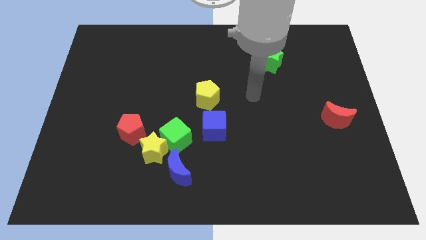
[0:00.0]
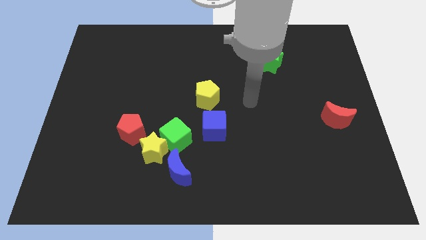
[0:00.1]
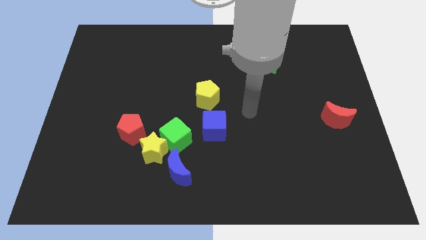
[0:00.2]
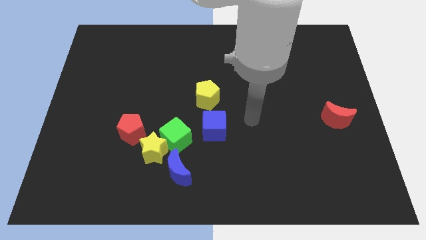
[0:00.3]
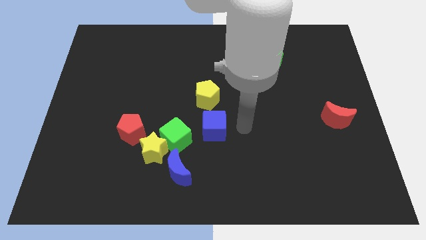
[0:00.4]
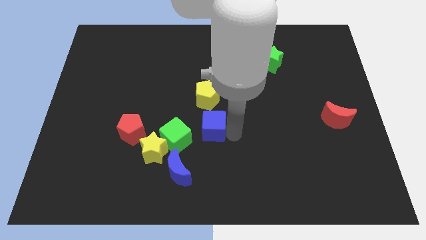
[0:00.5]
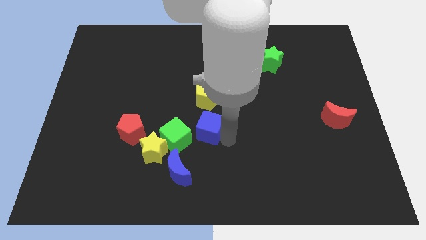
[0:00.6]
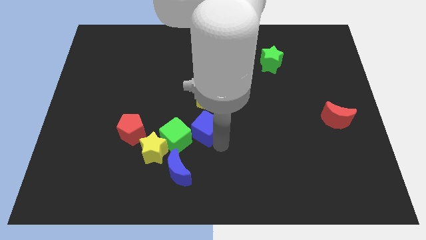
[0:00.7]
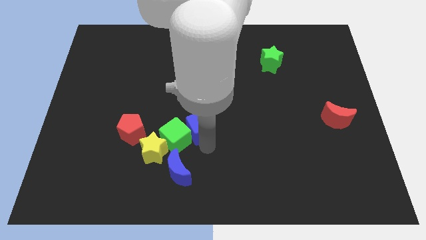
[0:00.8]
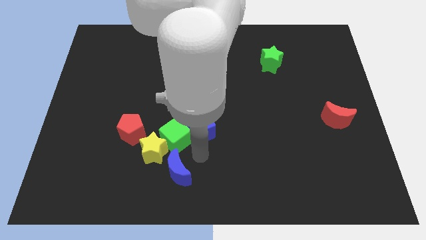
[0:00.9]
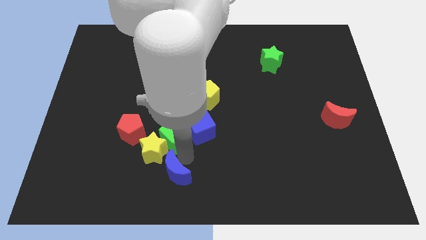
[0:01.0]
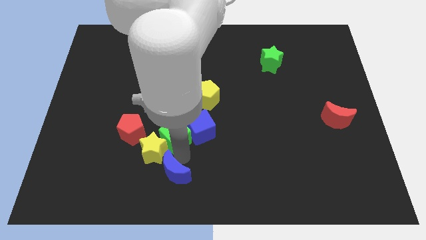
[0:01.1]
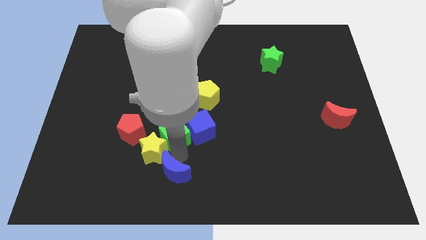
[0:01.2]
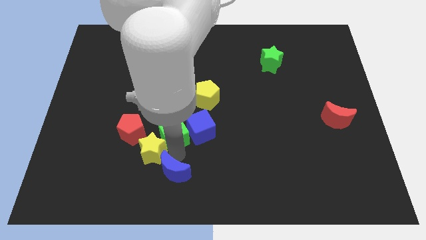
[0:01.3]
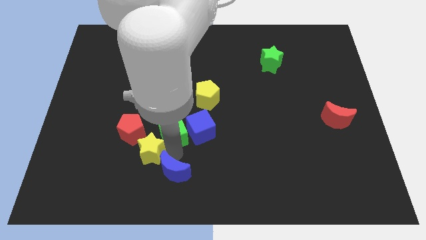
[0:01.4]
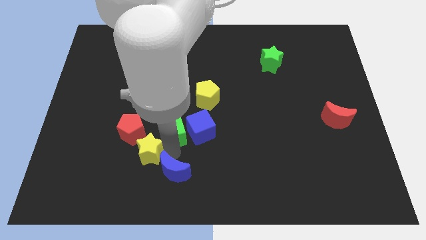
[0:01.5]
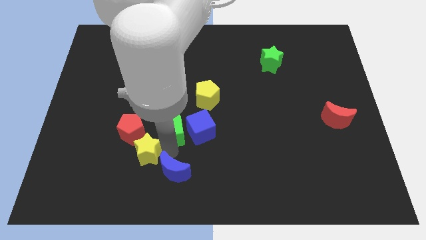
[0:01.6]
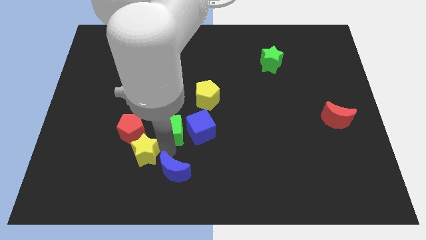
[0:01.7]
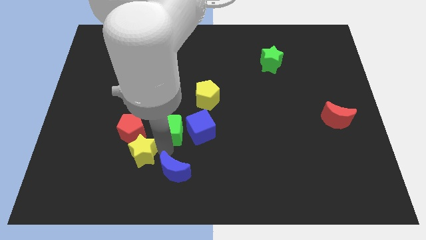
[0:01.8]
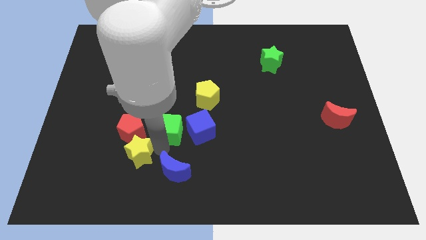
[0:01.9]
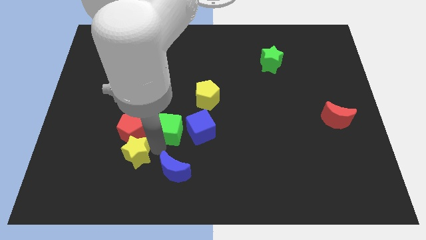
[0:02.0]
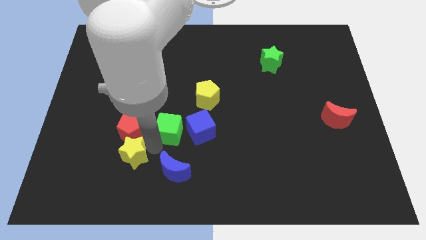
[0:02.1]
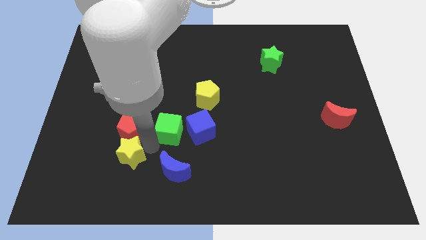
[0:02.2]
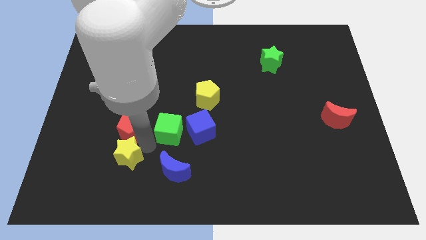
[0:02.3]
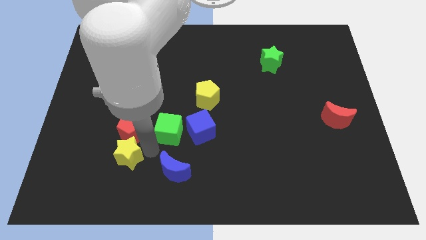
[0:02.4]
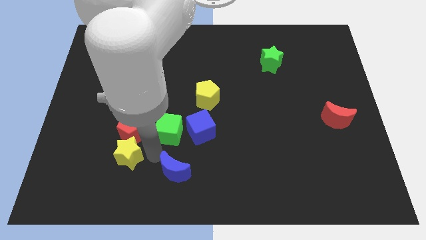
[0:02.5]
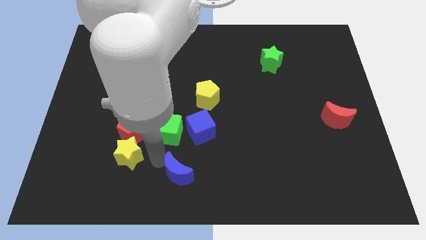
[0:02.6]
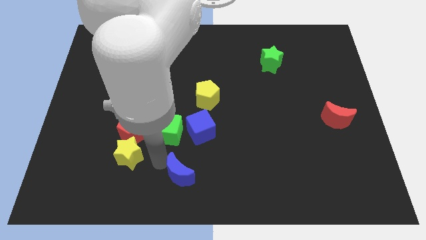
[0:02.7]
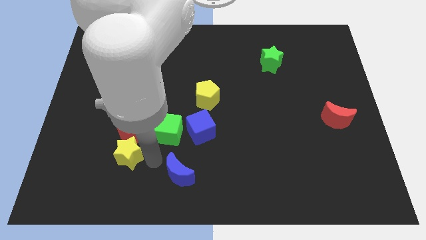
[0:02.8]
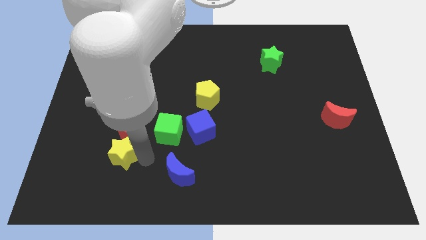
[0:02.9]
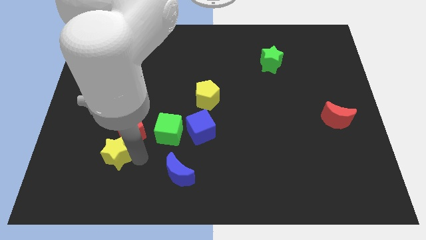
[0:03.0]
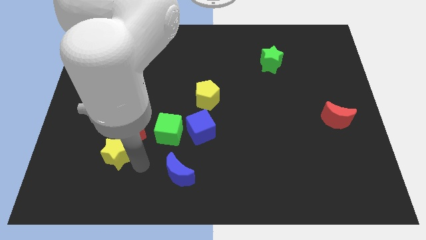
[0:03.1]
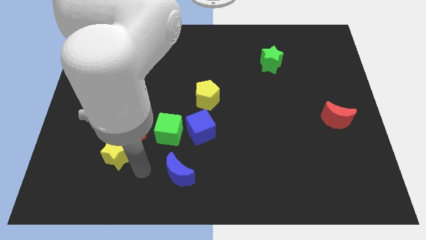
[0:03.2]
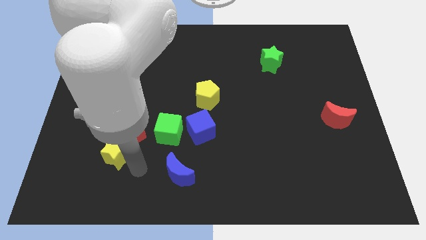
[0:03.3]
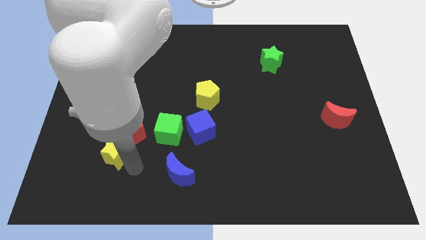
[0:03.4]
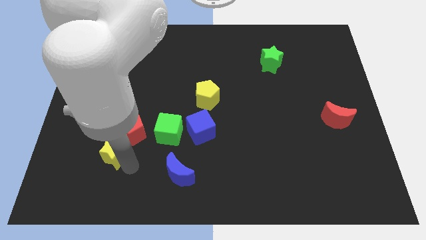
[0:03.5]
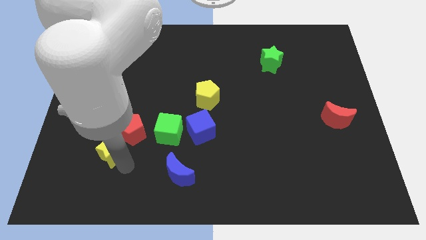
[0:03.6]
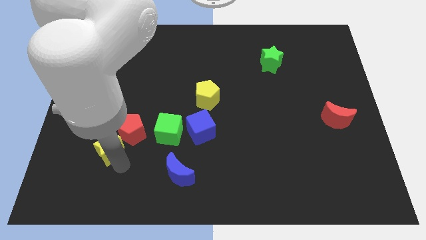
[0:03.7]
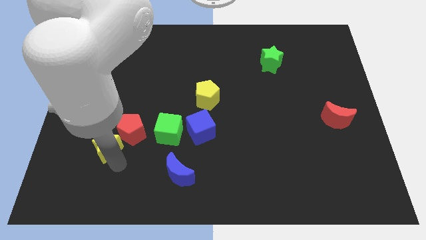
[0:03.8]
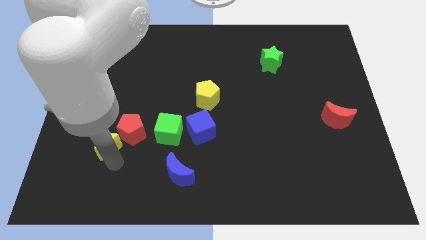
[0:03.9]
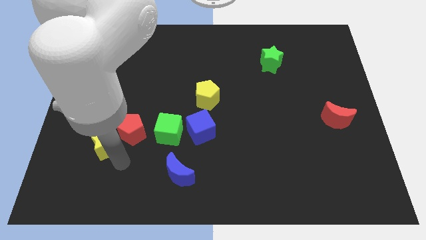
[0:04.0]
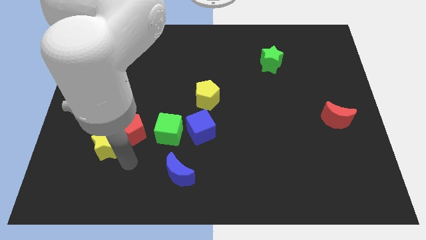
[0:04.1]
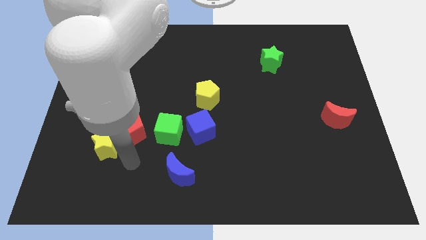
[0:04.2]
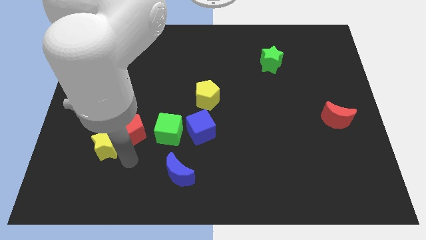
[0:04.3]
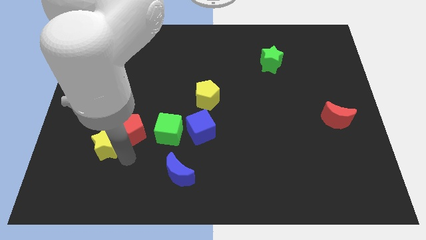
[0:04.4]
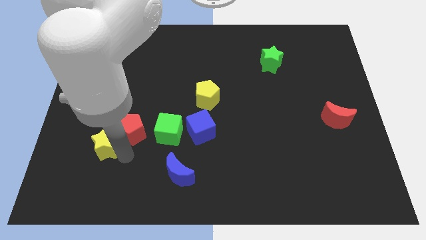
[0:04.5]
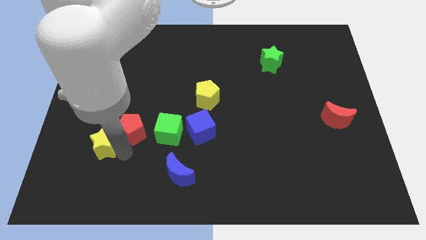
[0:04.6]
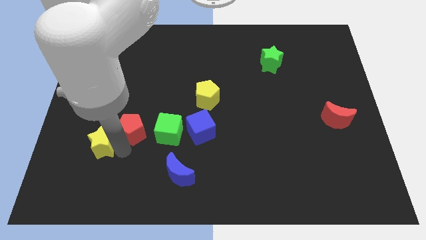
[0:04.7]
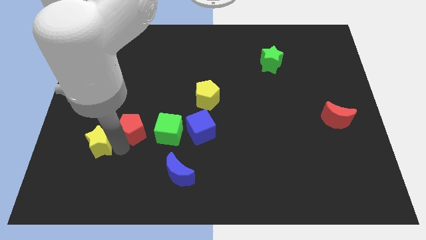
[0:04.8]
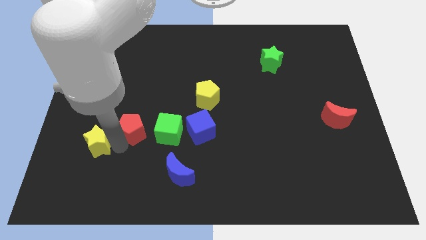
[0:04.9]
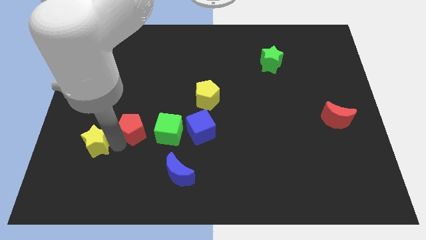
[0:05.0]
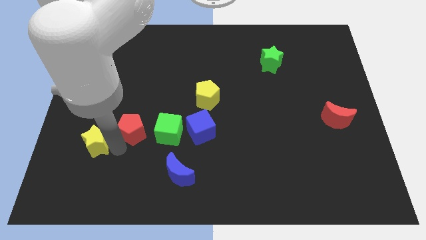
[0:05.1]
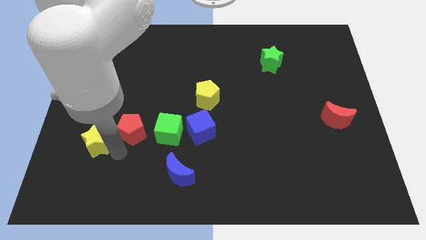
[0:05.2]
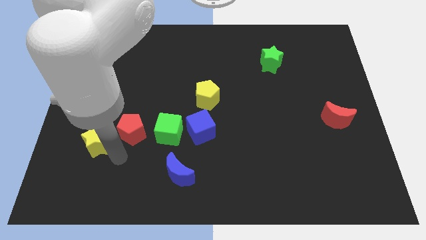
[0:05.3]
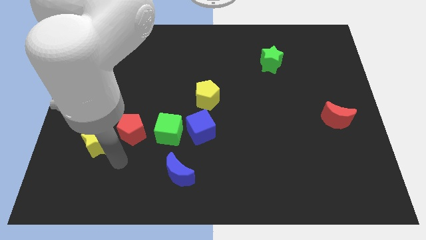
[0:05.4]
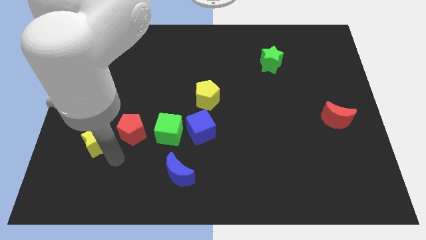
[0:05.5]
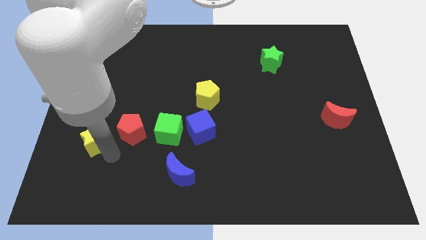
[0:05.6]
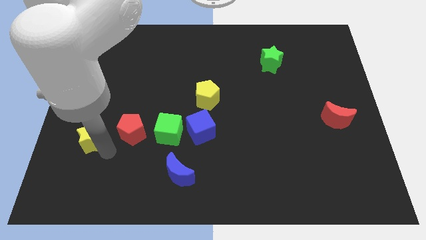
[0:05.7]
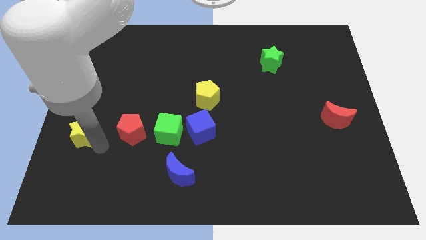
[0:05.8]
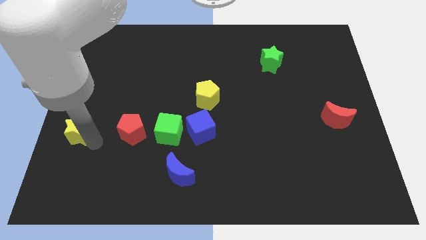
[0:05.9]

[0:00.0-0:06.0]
push the yellow star to the left side of the board

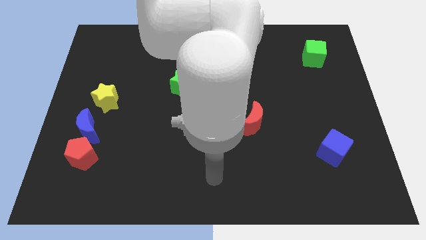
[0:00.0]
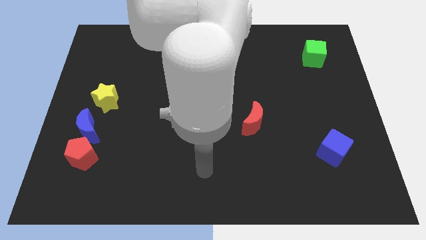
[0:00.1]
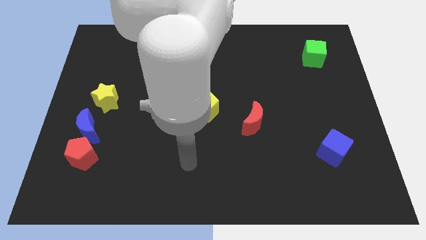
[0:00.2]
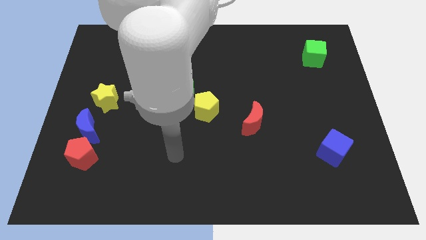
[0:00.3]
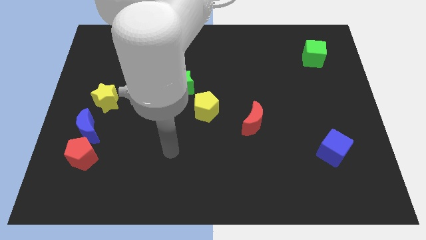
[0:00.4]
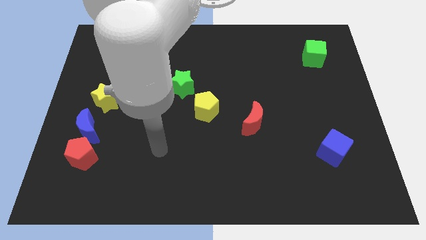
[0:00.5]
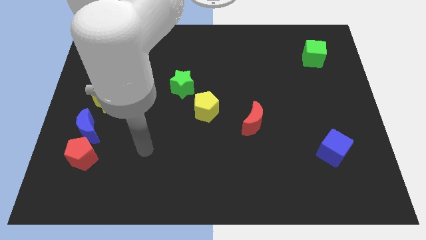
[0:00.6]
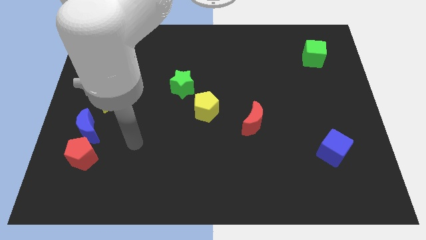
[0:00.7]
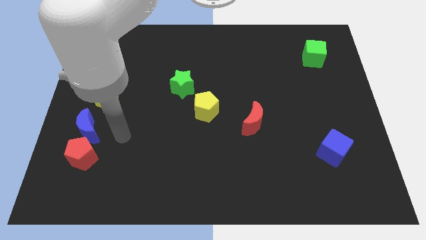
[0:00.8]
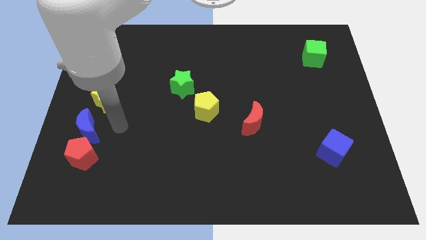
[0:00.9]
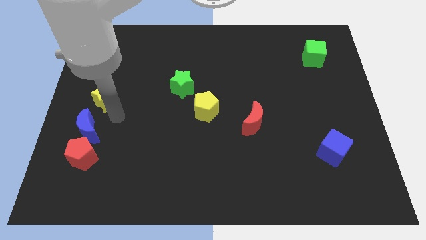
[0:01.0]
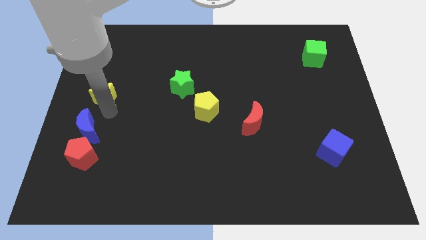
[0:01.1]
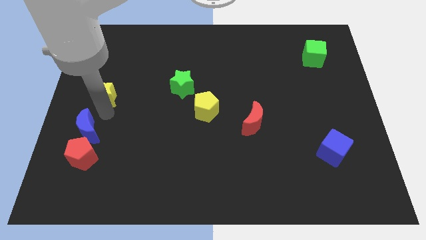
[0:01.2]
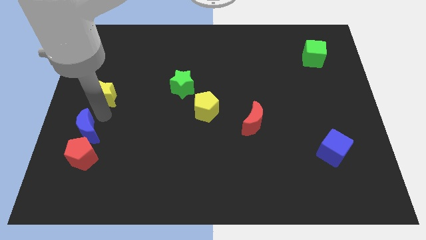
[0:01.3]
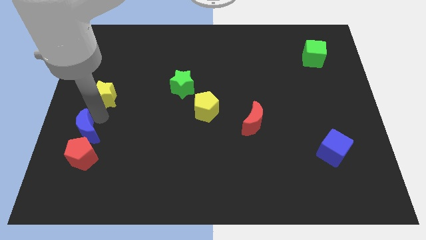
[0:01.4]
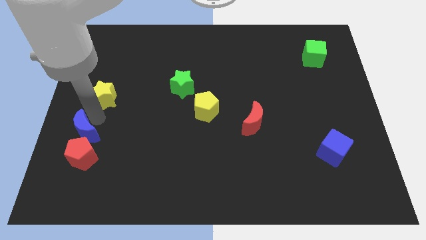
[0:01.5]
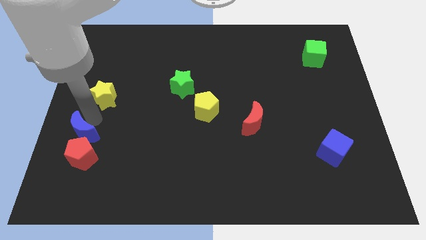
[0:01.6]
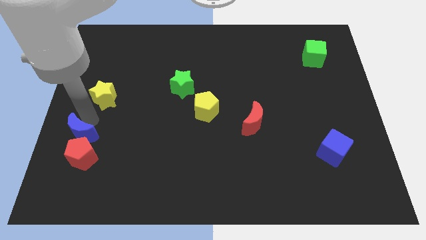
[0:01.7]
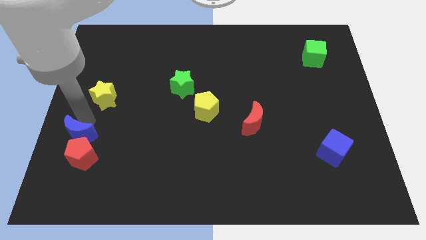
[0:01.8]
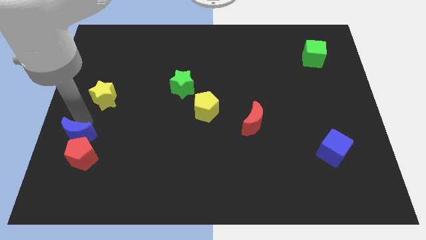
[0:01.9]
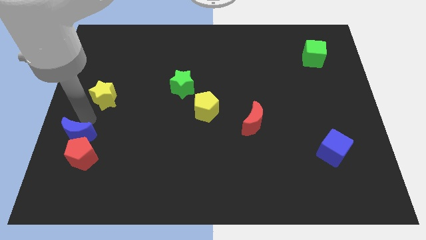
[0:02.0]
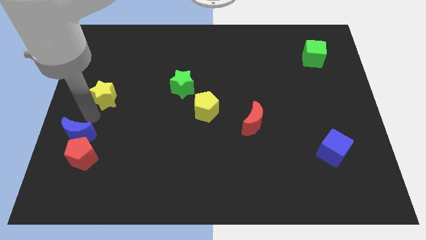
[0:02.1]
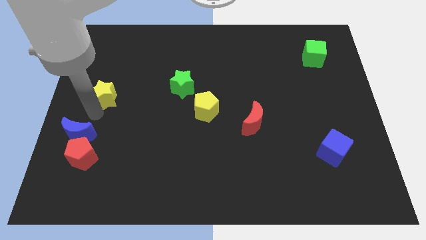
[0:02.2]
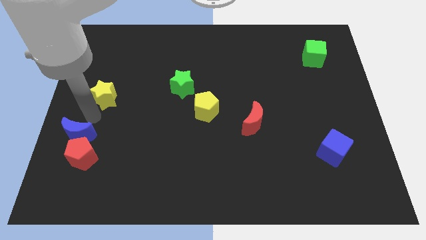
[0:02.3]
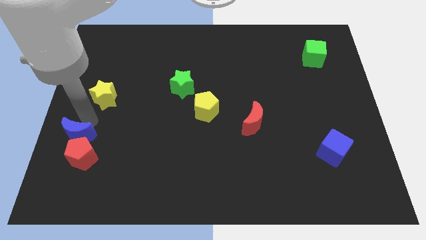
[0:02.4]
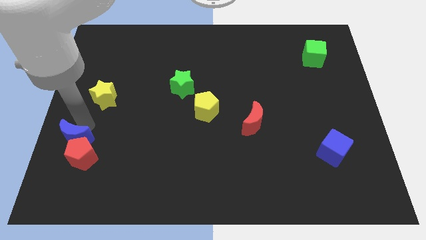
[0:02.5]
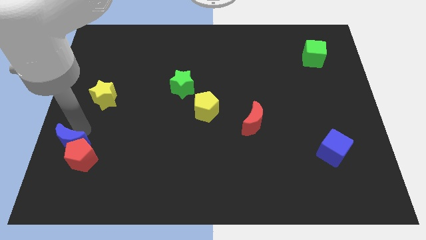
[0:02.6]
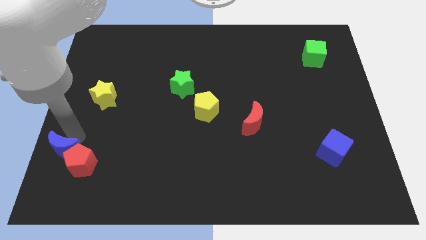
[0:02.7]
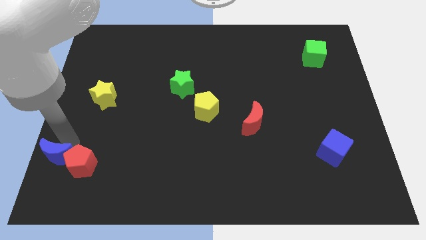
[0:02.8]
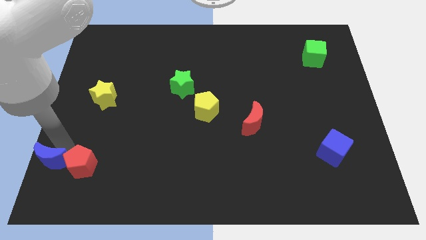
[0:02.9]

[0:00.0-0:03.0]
push the blue moon to the bottom left of the board
